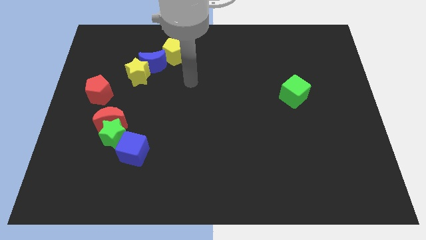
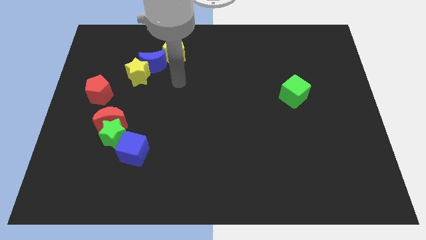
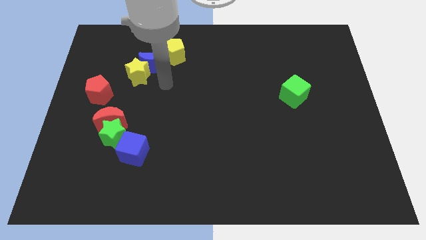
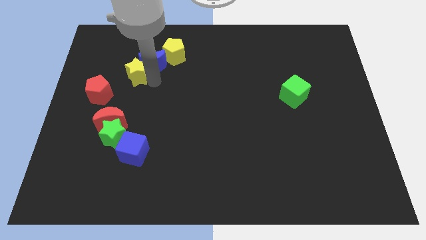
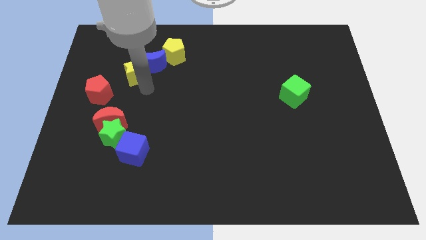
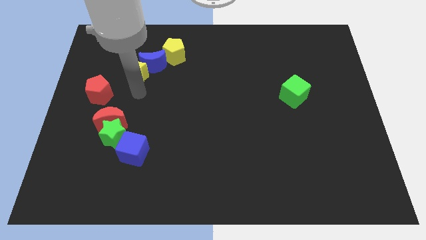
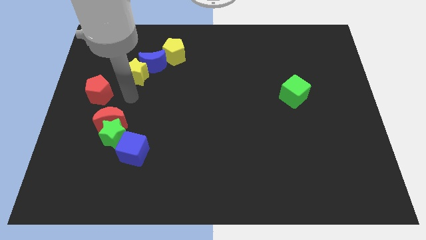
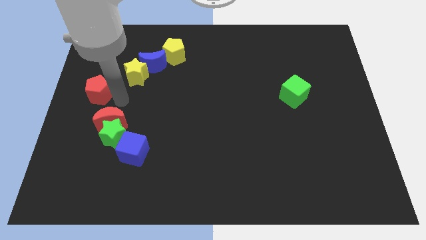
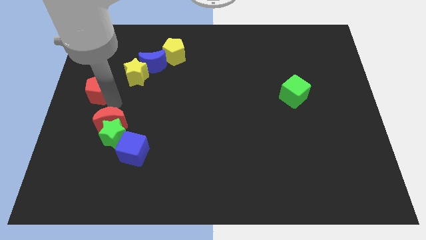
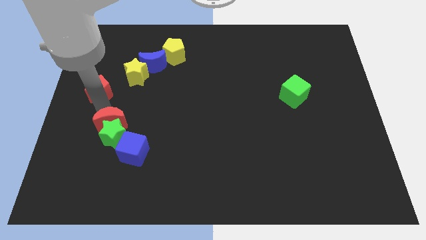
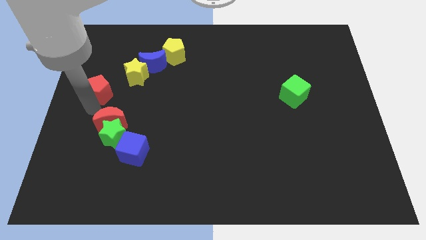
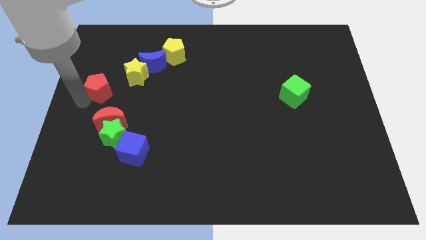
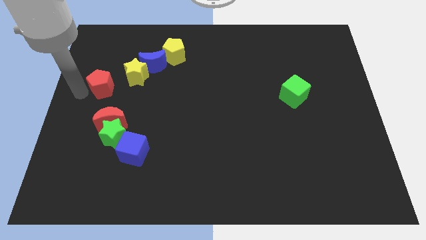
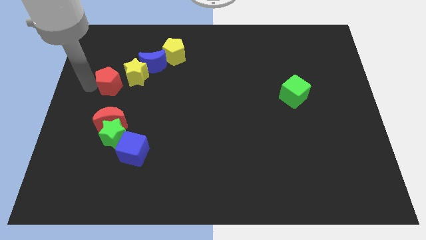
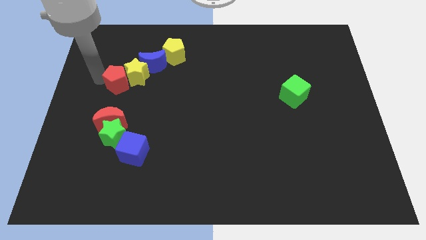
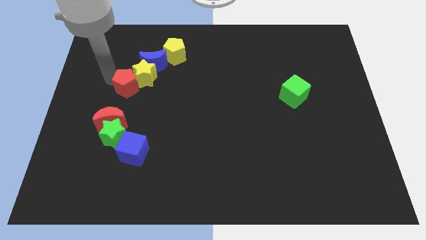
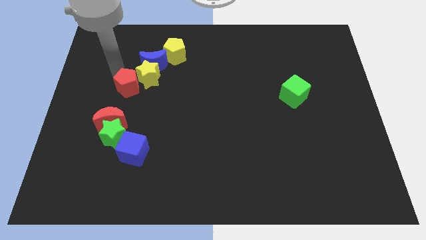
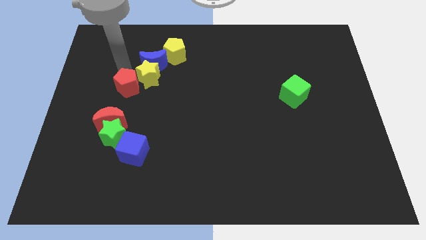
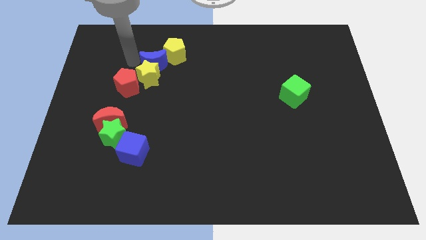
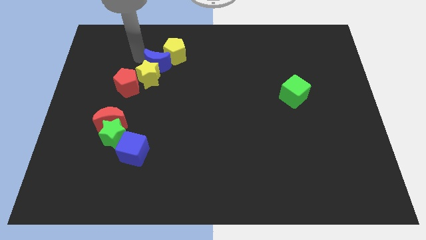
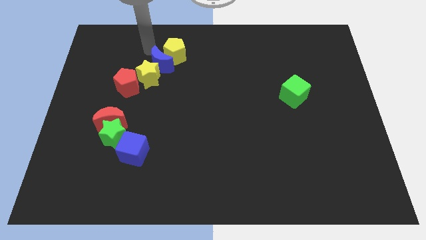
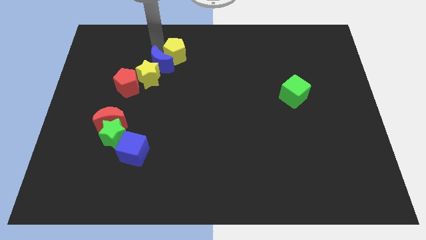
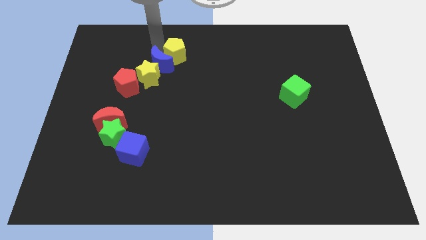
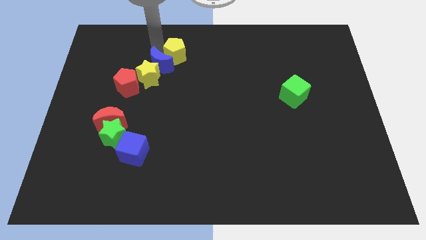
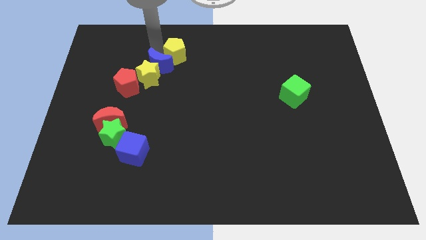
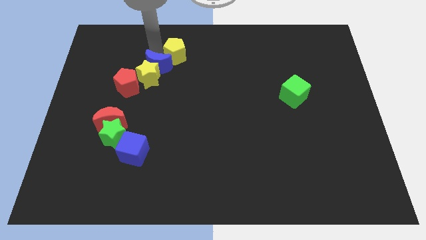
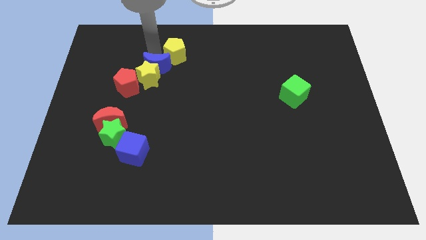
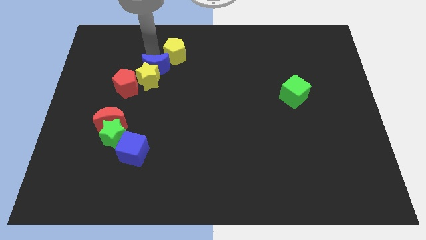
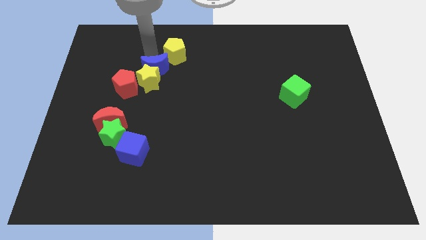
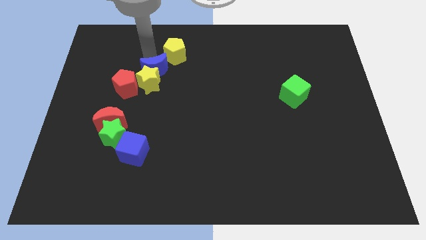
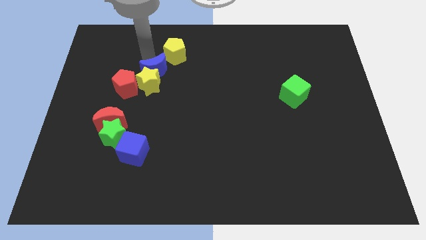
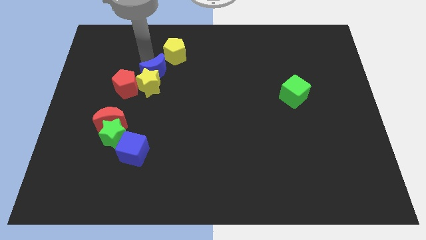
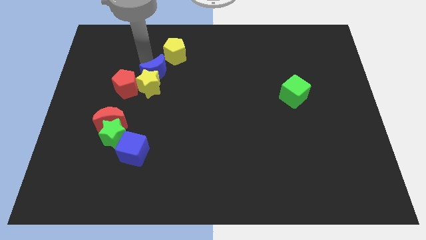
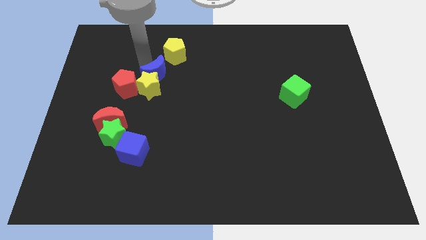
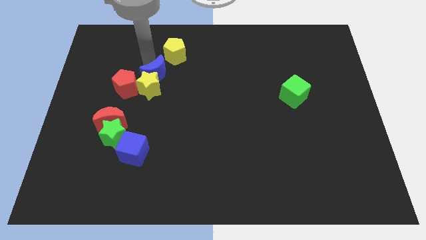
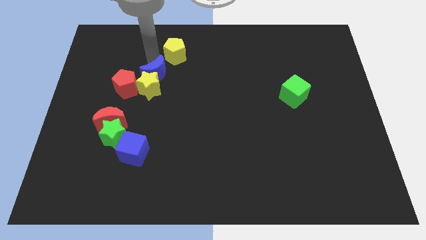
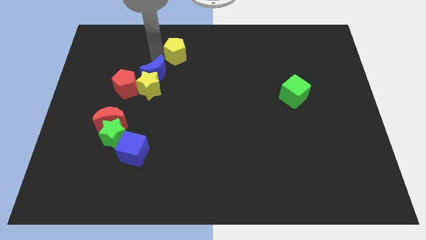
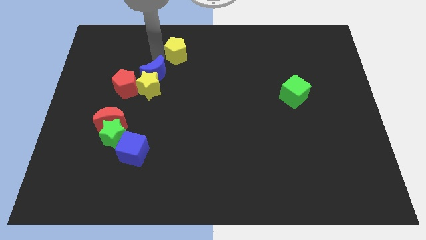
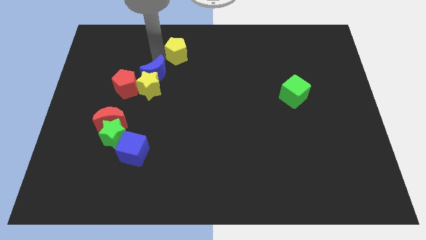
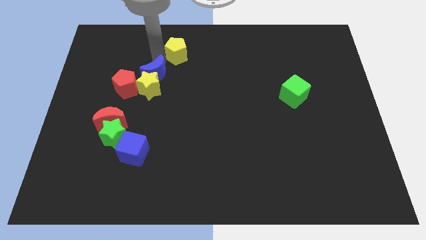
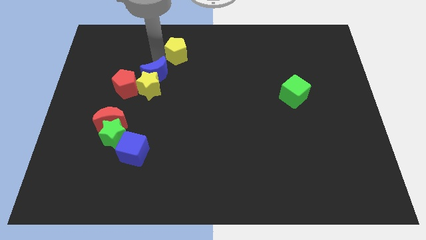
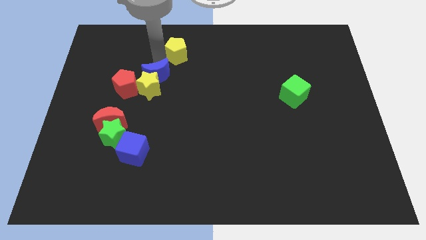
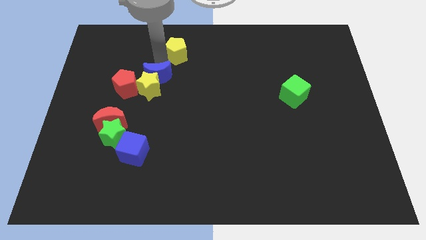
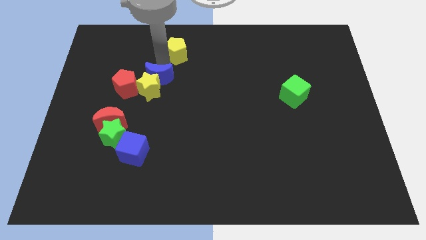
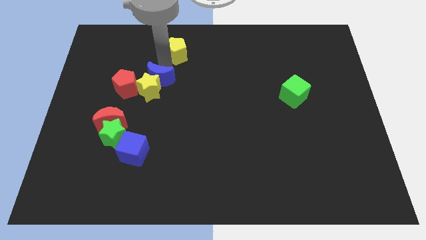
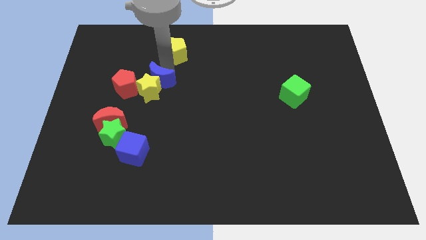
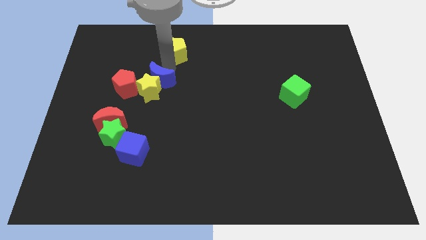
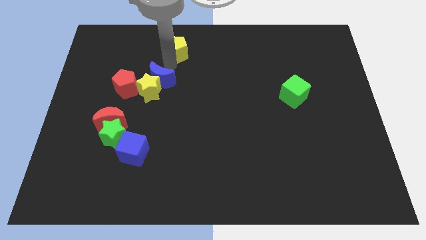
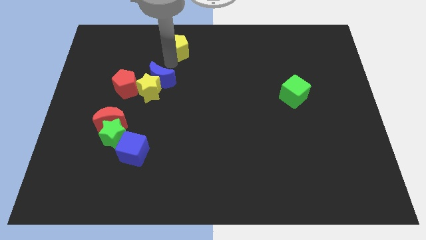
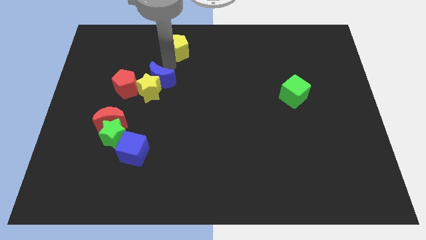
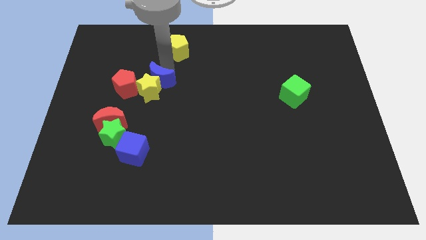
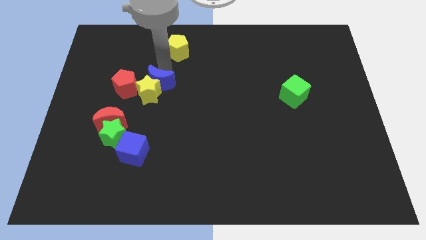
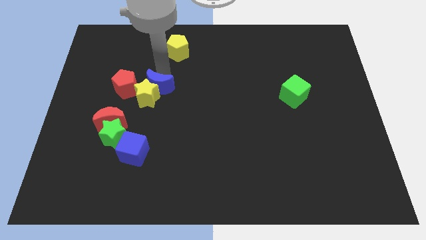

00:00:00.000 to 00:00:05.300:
slide the blue moon downwards a bit

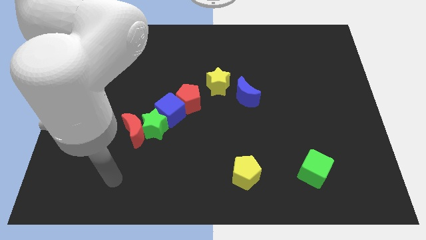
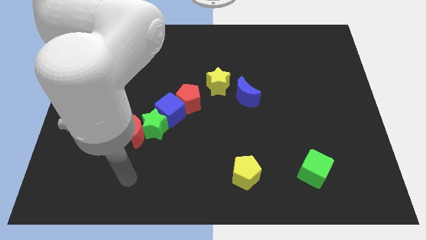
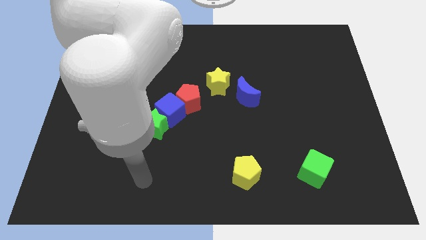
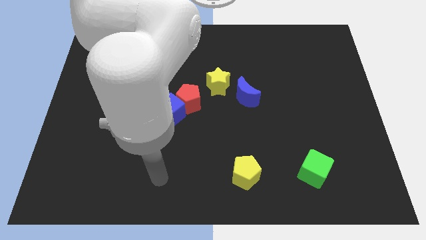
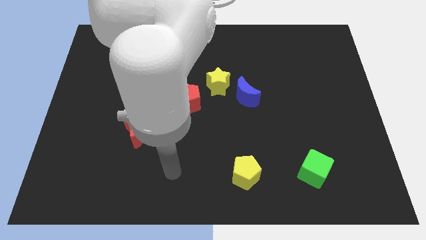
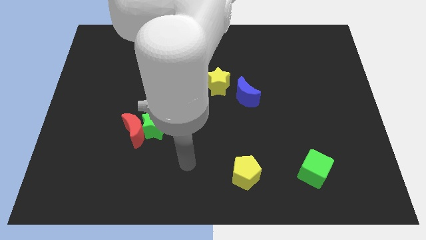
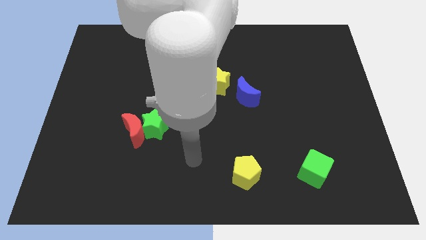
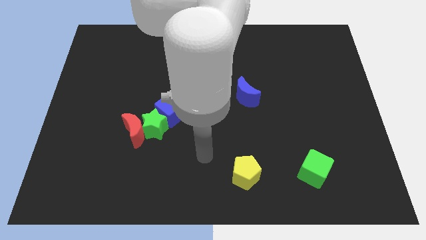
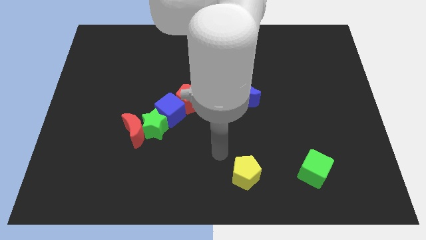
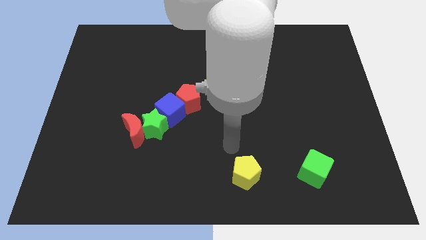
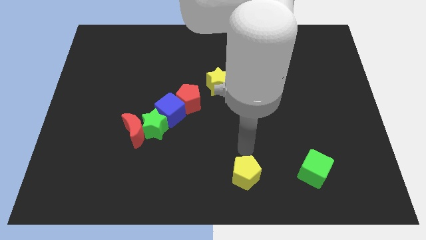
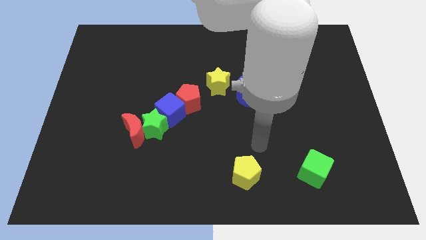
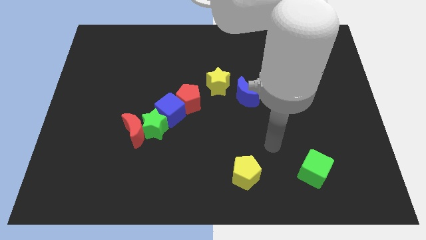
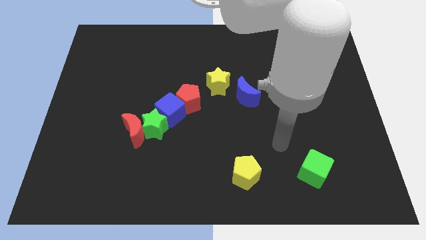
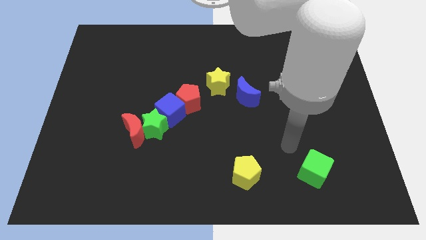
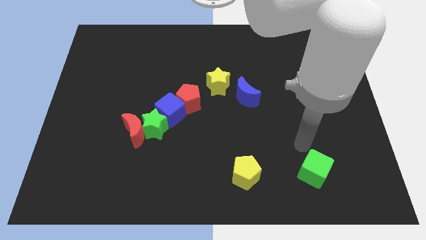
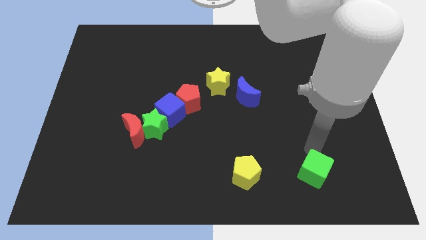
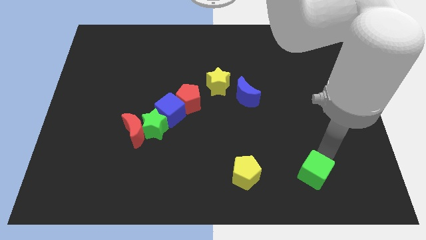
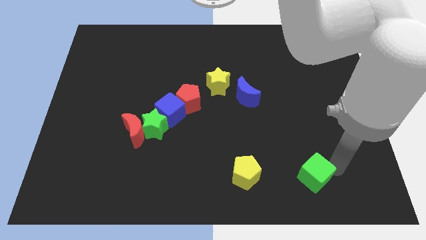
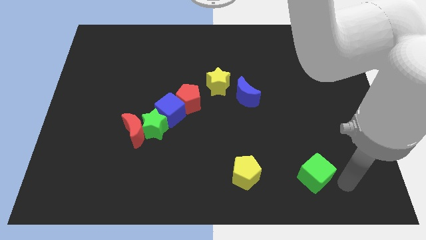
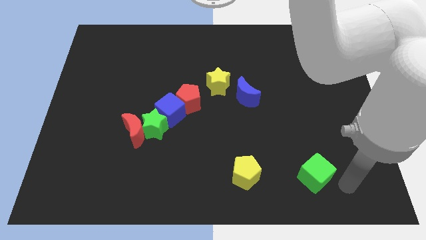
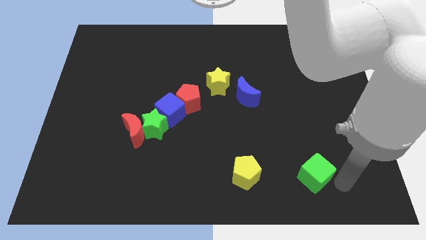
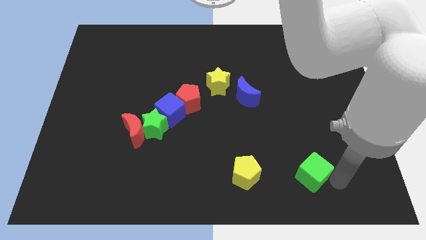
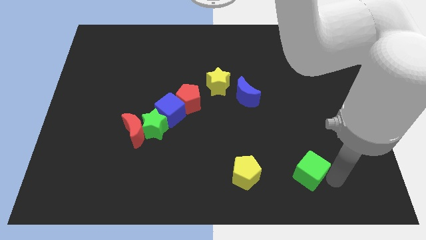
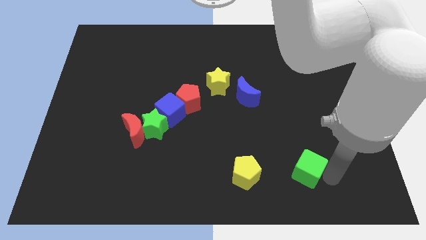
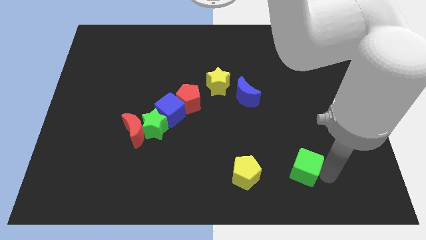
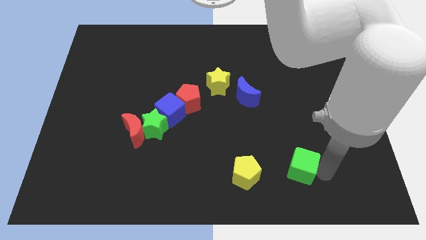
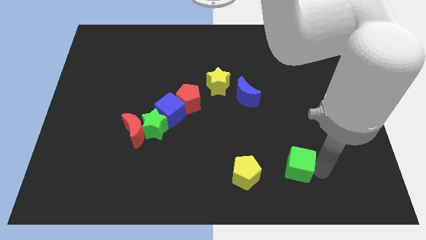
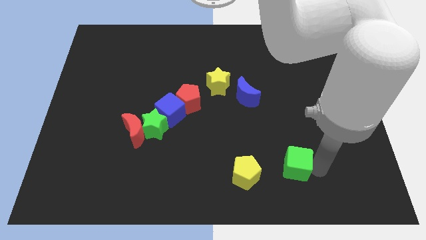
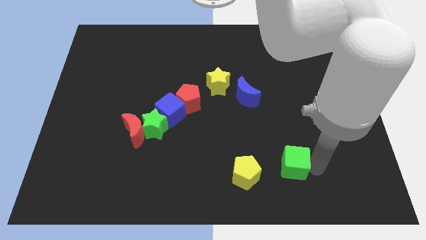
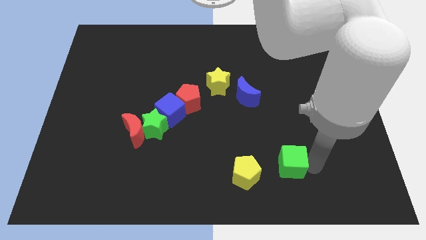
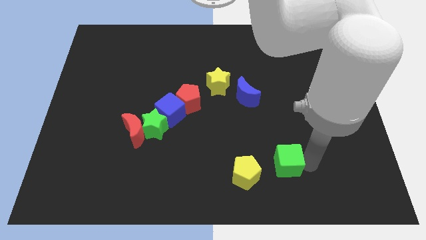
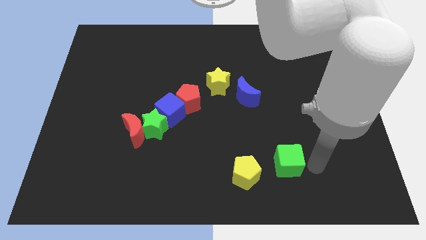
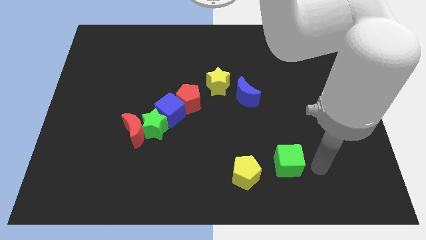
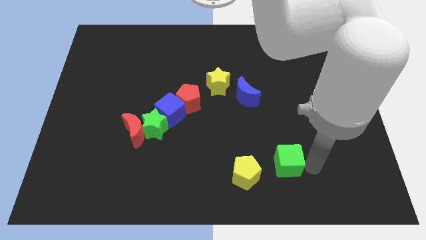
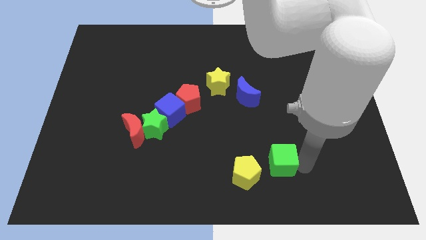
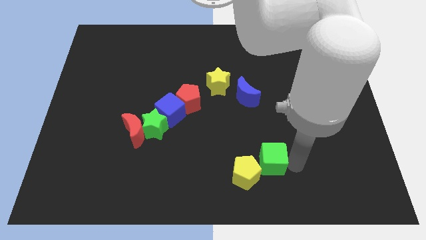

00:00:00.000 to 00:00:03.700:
push the green cube left slightly
